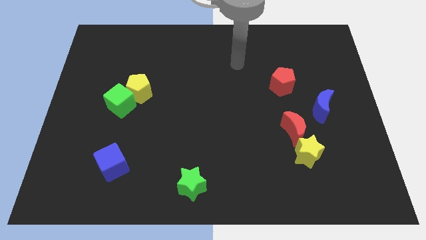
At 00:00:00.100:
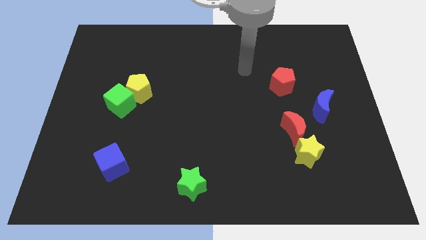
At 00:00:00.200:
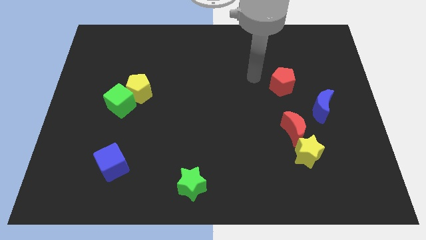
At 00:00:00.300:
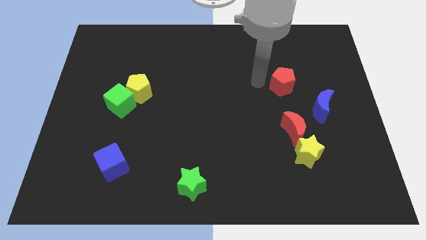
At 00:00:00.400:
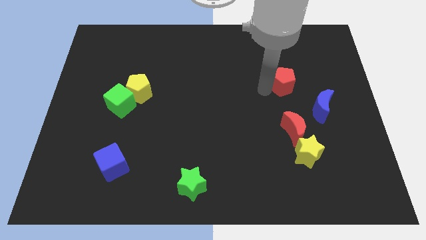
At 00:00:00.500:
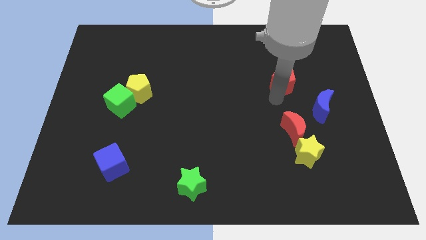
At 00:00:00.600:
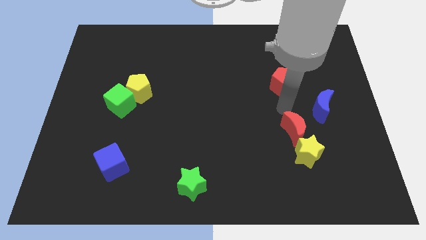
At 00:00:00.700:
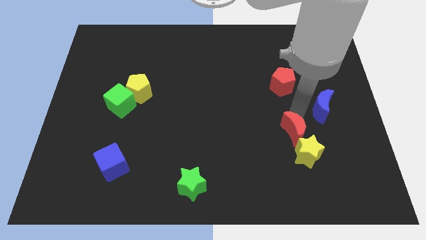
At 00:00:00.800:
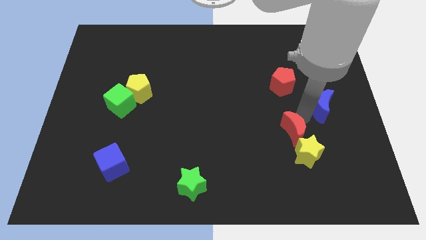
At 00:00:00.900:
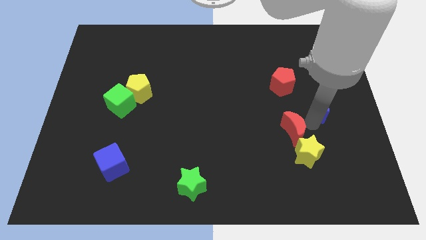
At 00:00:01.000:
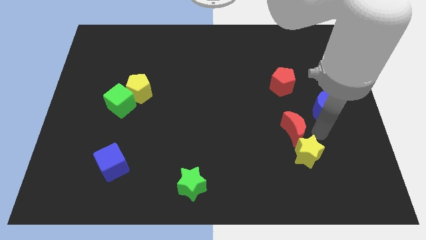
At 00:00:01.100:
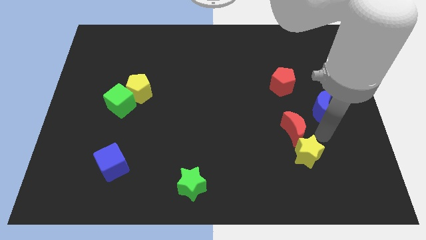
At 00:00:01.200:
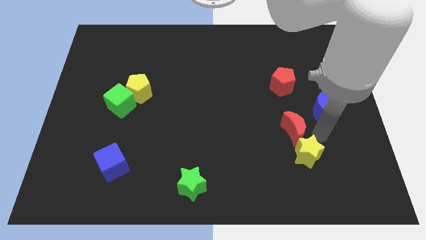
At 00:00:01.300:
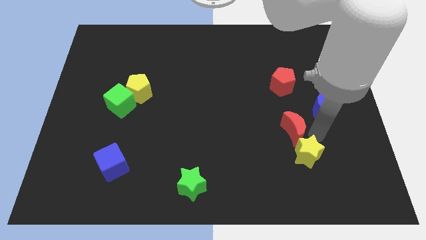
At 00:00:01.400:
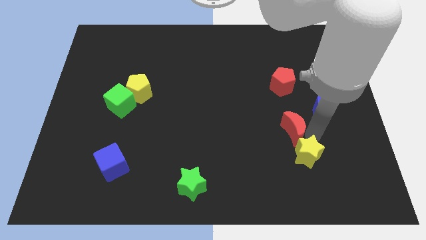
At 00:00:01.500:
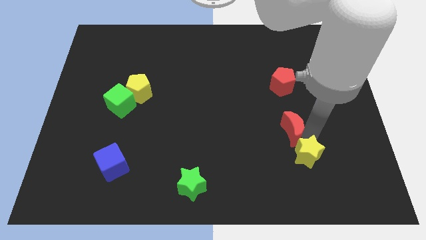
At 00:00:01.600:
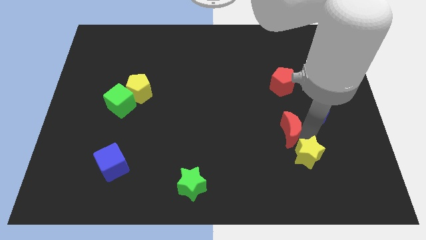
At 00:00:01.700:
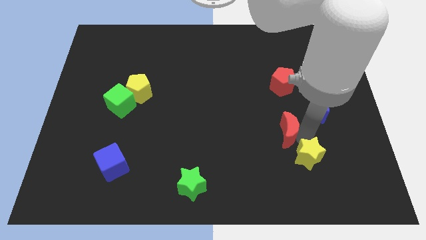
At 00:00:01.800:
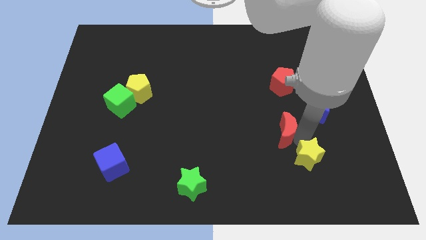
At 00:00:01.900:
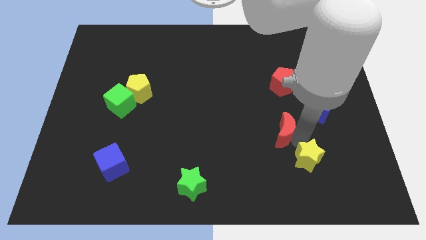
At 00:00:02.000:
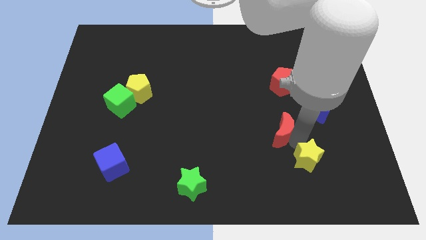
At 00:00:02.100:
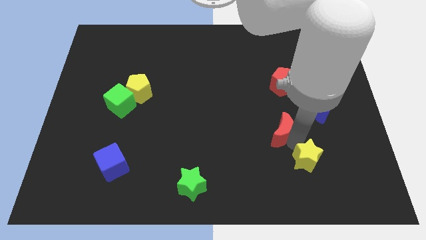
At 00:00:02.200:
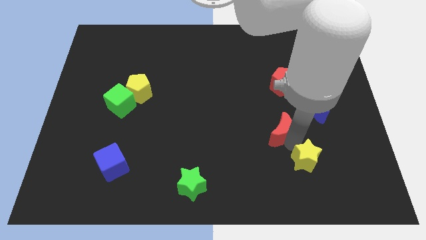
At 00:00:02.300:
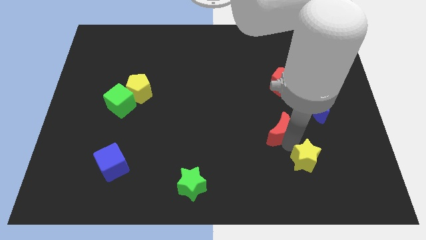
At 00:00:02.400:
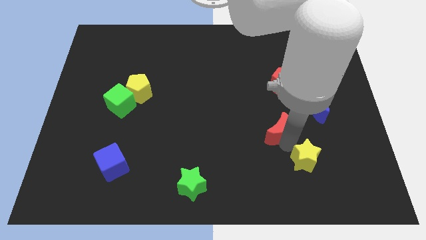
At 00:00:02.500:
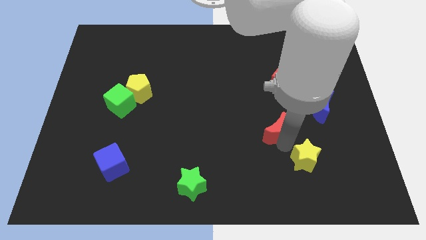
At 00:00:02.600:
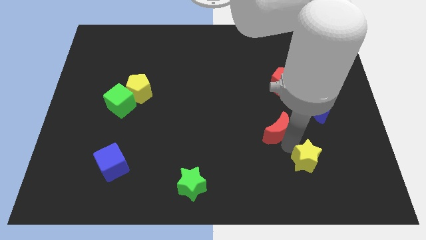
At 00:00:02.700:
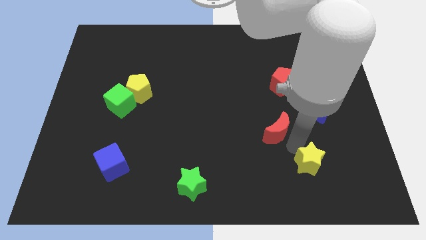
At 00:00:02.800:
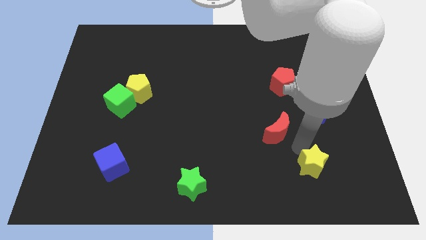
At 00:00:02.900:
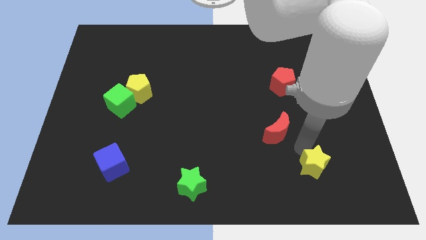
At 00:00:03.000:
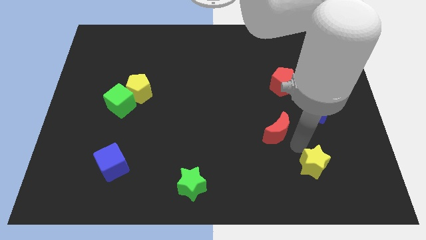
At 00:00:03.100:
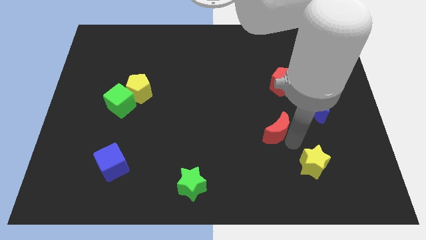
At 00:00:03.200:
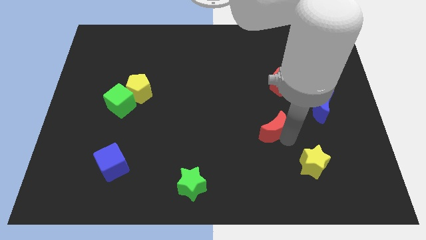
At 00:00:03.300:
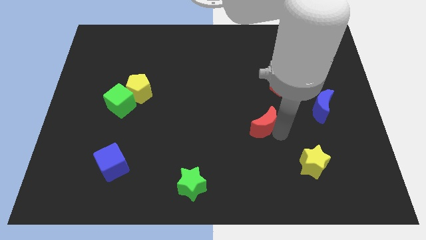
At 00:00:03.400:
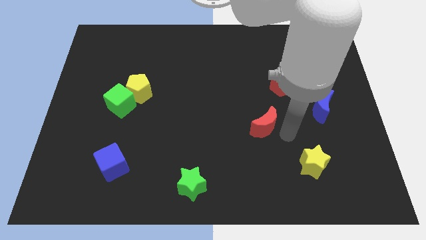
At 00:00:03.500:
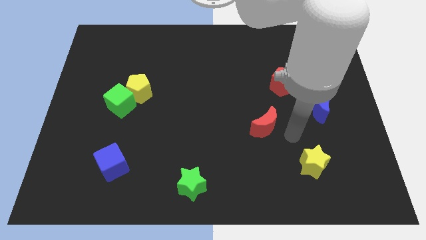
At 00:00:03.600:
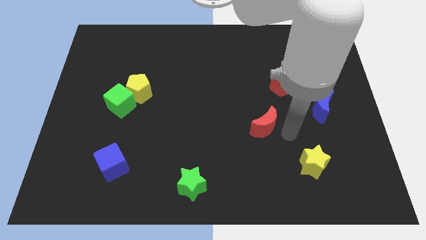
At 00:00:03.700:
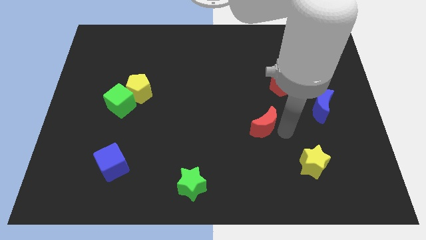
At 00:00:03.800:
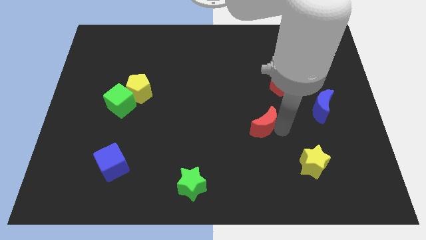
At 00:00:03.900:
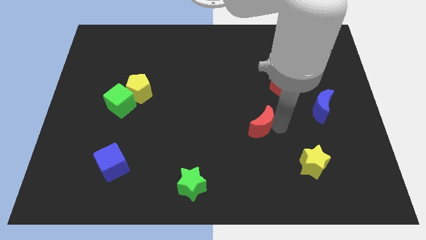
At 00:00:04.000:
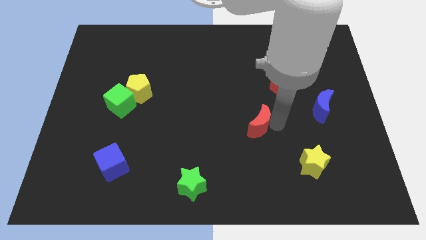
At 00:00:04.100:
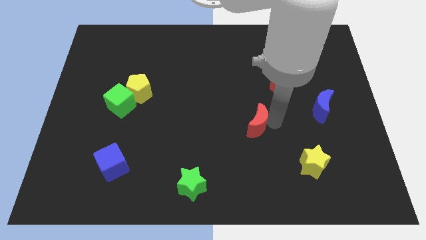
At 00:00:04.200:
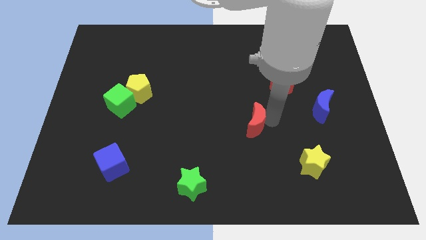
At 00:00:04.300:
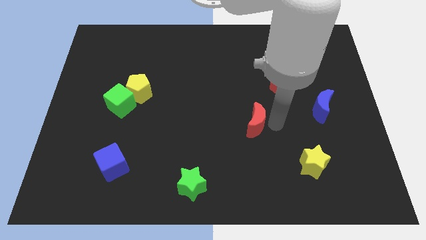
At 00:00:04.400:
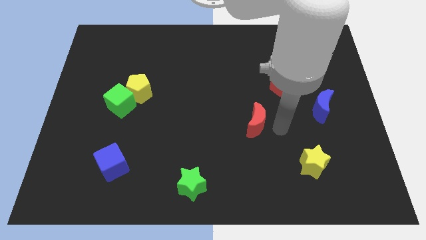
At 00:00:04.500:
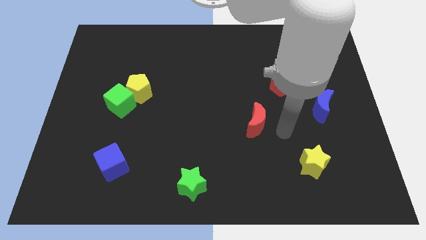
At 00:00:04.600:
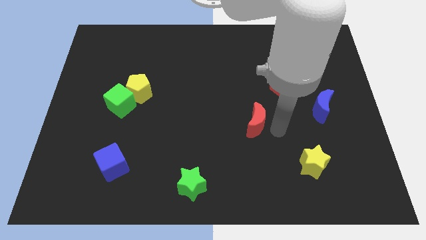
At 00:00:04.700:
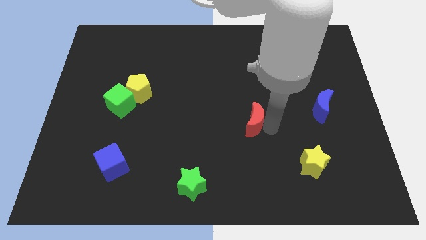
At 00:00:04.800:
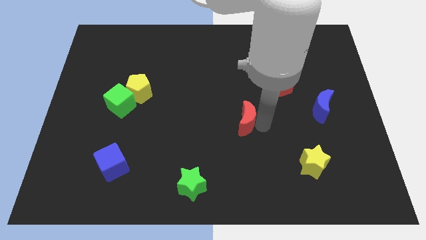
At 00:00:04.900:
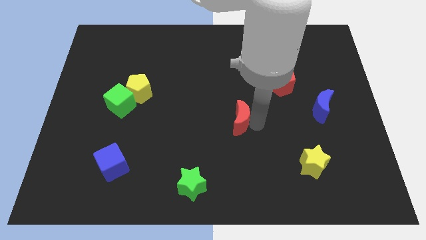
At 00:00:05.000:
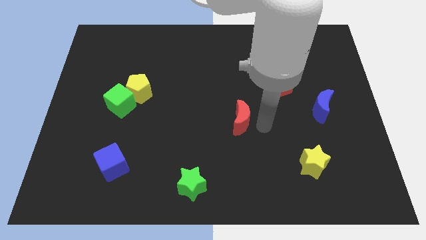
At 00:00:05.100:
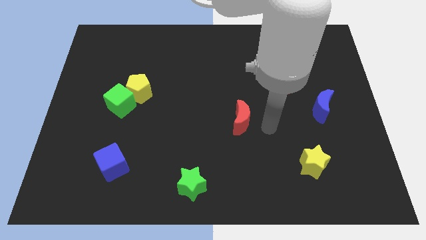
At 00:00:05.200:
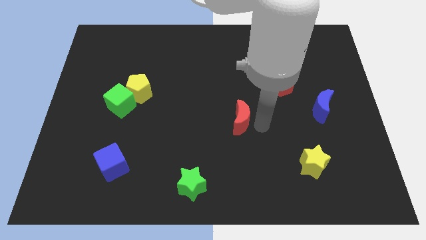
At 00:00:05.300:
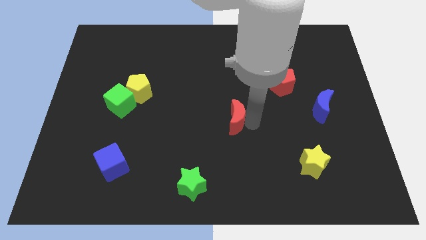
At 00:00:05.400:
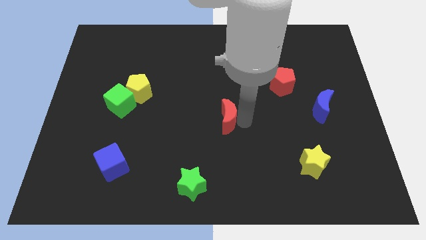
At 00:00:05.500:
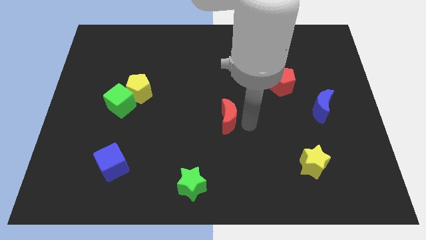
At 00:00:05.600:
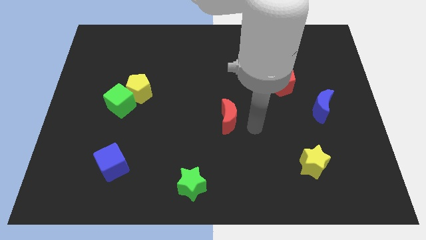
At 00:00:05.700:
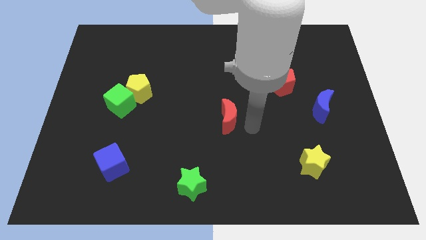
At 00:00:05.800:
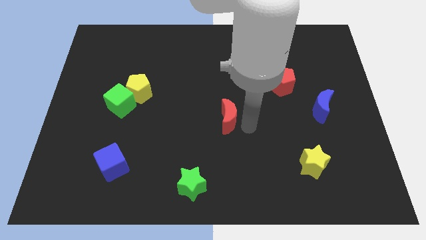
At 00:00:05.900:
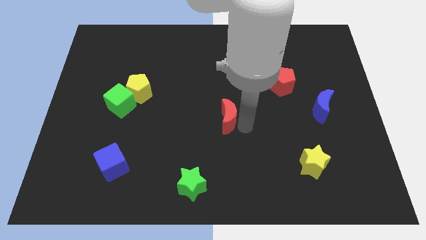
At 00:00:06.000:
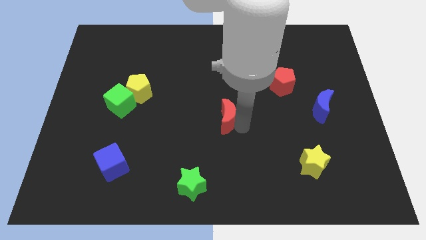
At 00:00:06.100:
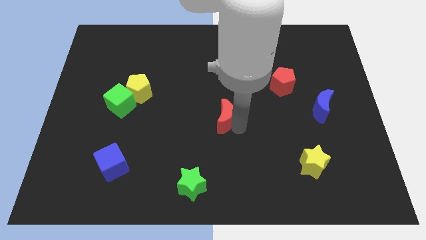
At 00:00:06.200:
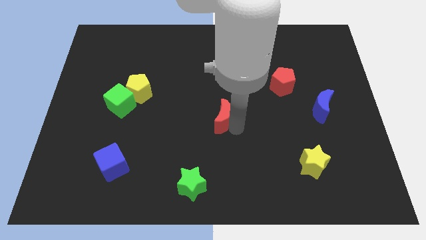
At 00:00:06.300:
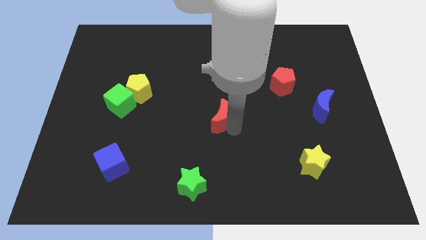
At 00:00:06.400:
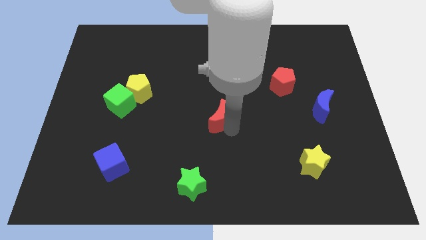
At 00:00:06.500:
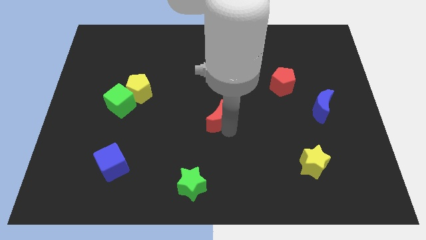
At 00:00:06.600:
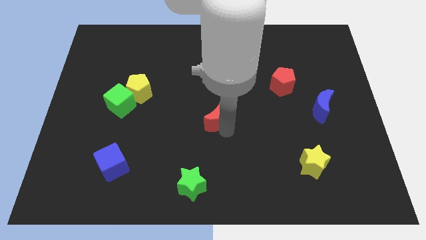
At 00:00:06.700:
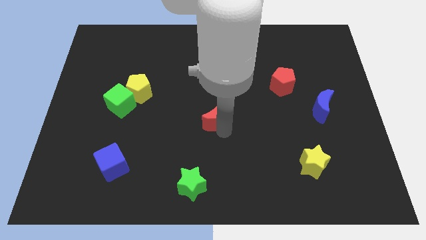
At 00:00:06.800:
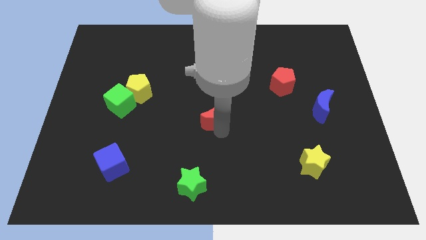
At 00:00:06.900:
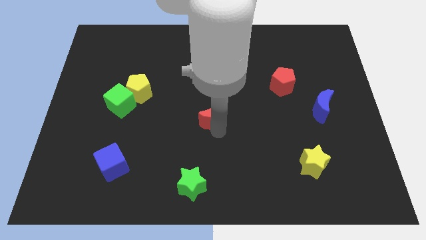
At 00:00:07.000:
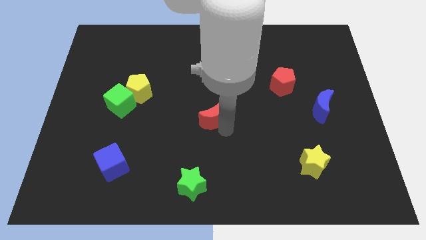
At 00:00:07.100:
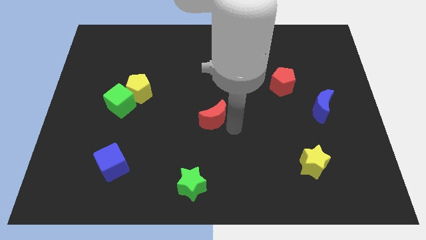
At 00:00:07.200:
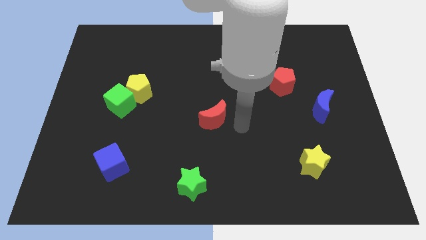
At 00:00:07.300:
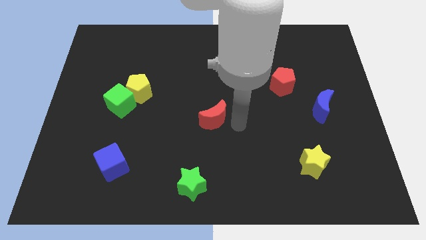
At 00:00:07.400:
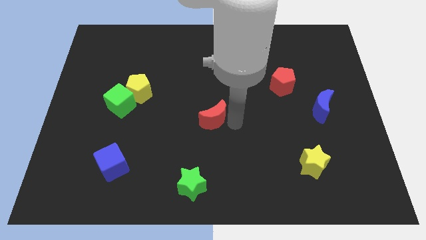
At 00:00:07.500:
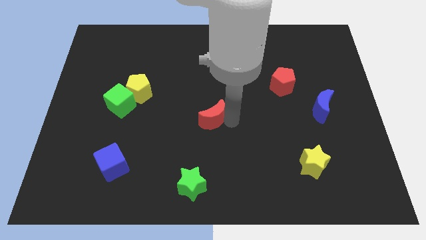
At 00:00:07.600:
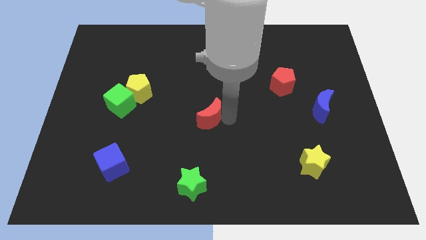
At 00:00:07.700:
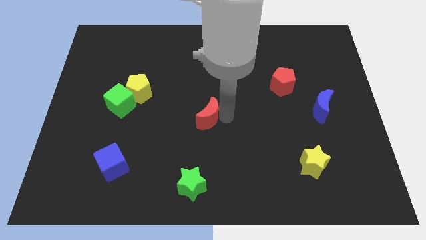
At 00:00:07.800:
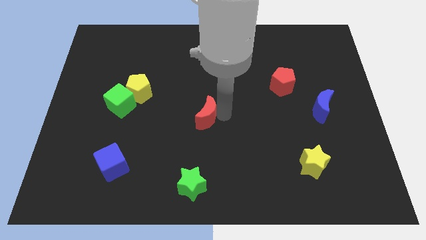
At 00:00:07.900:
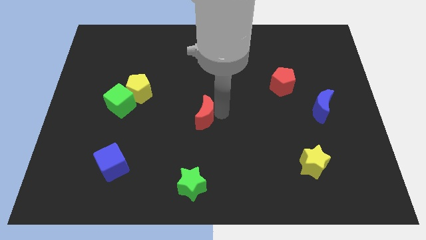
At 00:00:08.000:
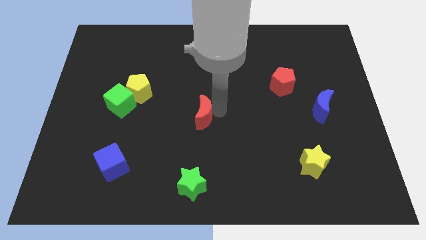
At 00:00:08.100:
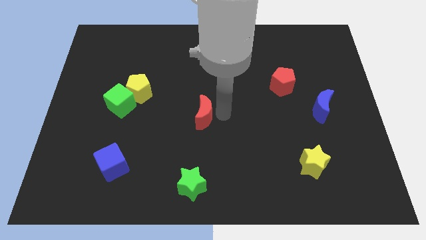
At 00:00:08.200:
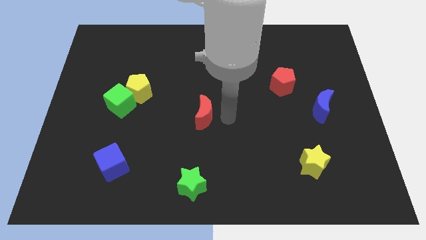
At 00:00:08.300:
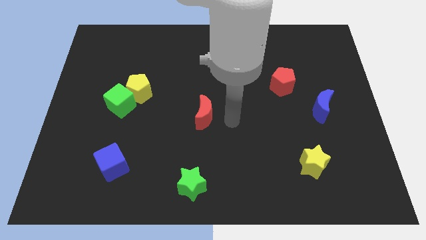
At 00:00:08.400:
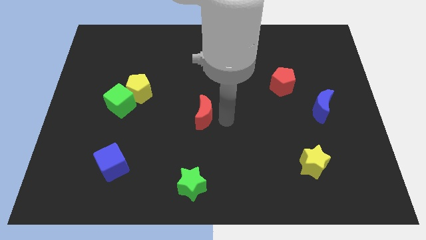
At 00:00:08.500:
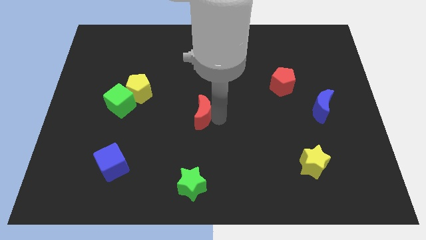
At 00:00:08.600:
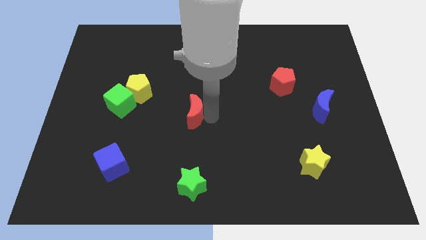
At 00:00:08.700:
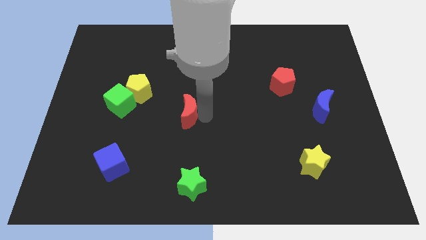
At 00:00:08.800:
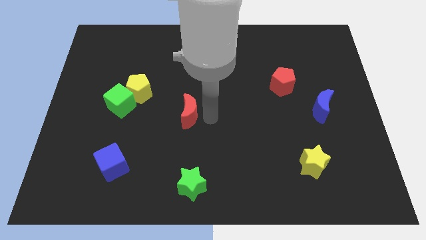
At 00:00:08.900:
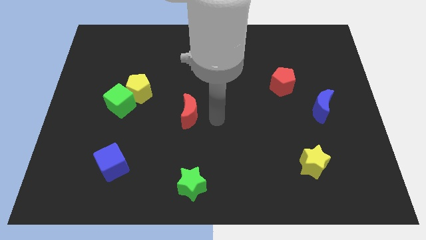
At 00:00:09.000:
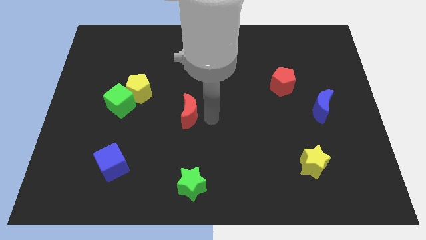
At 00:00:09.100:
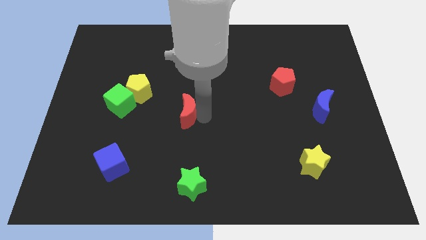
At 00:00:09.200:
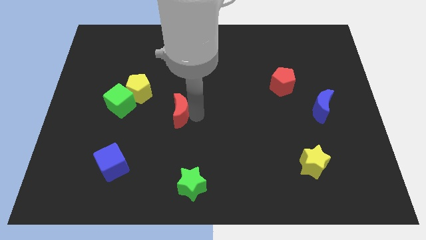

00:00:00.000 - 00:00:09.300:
slide the red moon to the bottom right side of the yellow pentagon
